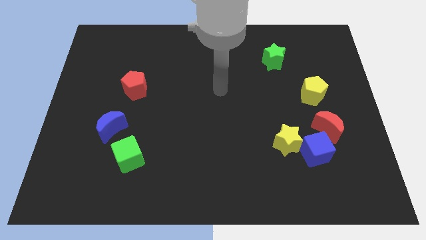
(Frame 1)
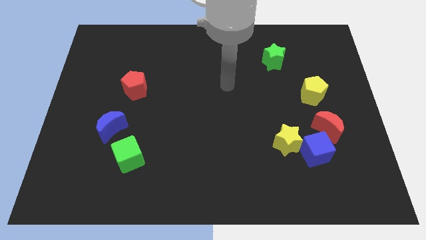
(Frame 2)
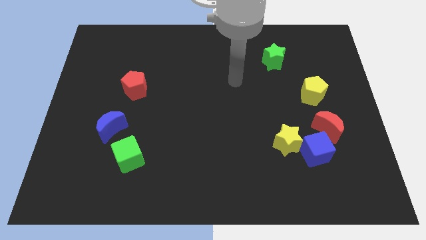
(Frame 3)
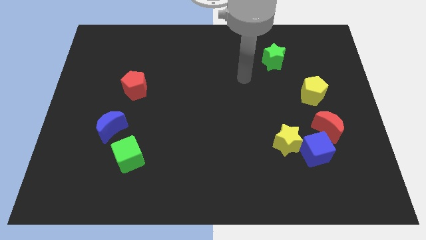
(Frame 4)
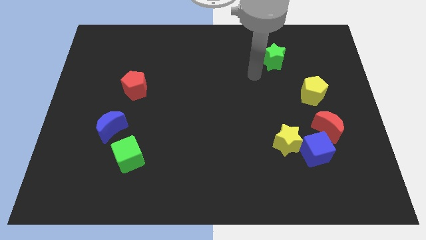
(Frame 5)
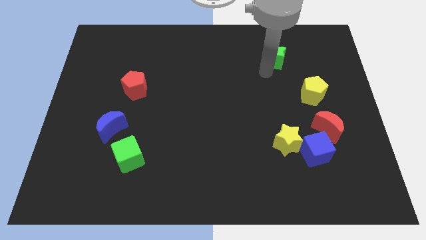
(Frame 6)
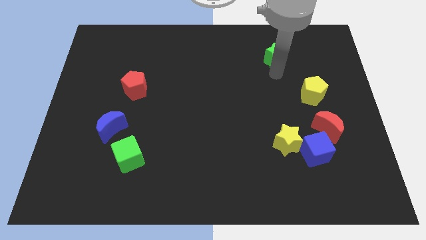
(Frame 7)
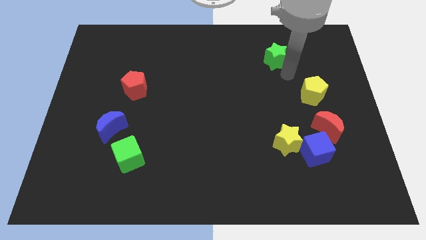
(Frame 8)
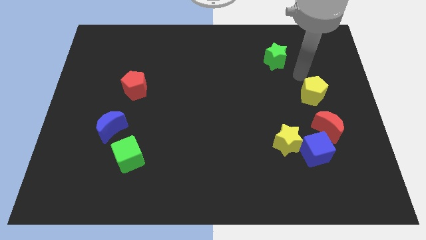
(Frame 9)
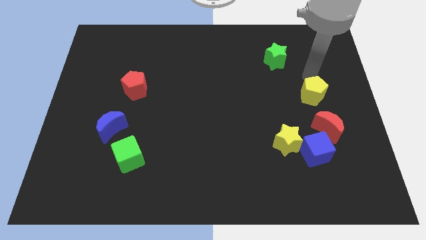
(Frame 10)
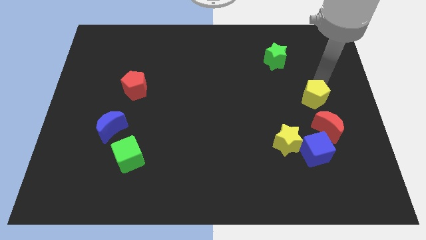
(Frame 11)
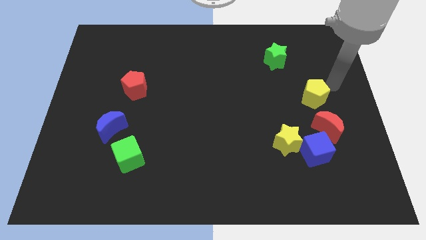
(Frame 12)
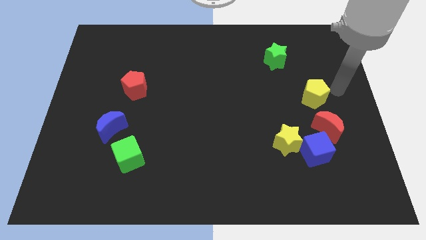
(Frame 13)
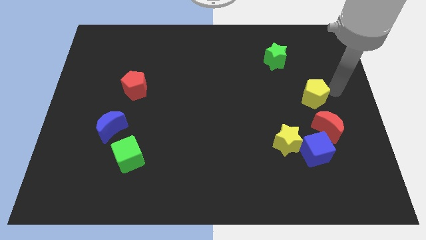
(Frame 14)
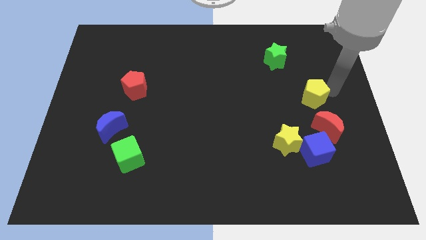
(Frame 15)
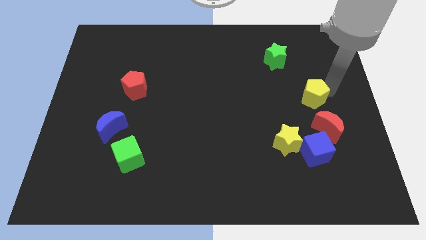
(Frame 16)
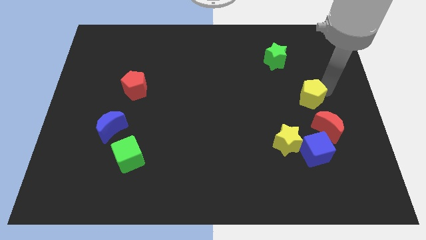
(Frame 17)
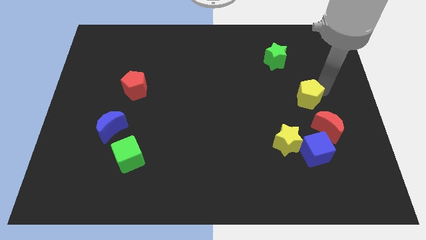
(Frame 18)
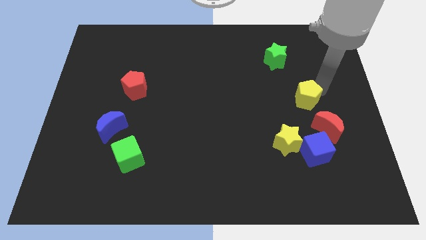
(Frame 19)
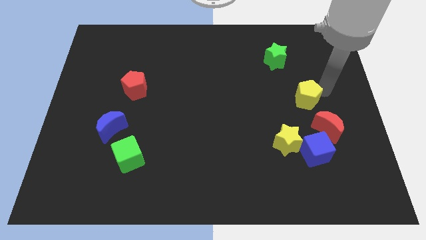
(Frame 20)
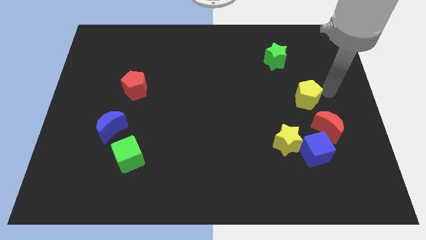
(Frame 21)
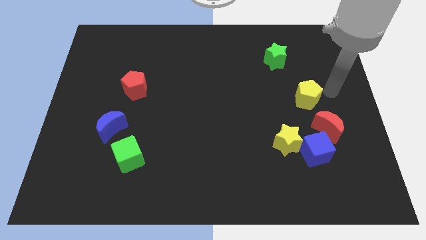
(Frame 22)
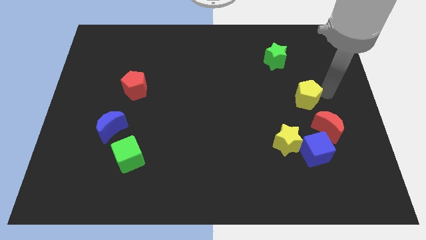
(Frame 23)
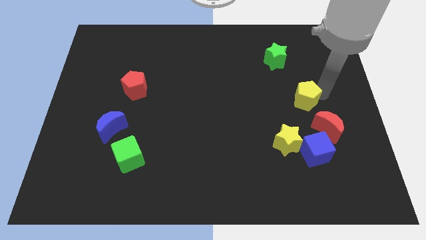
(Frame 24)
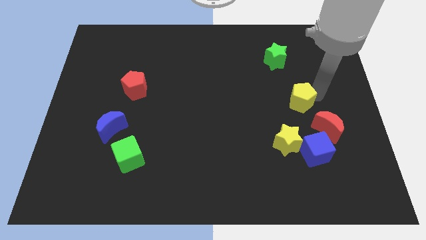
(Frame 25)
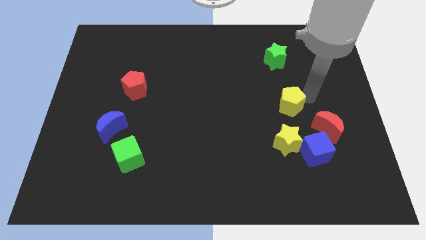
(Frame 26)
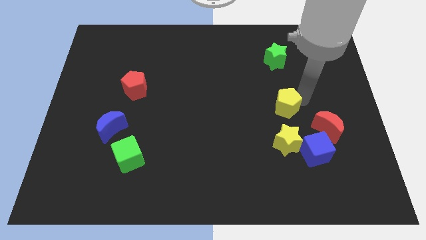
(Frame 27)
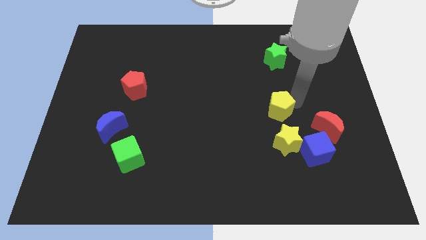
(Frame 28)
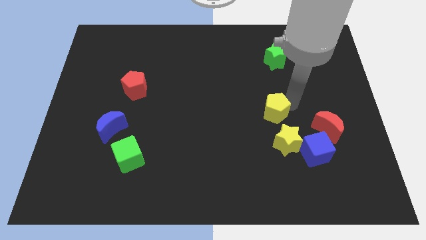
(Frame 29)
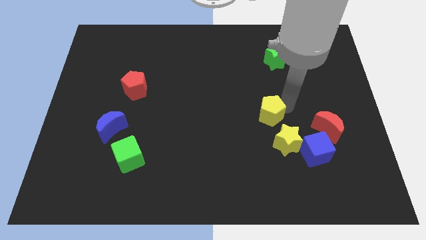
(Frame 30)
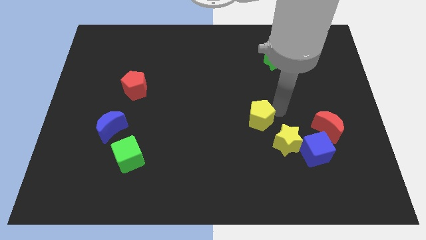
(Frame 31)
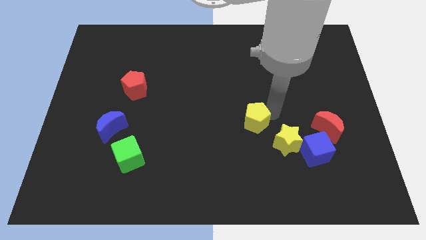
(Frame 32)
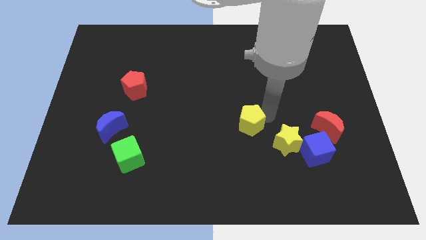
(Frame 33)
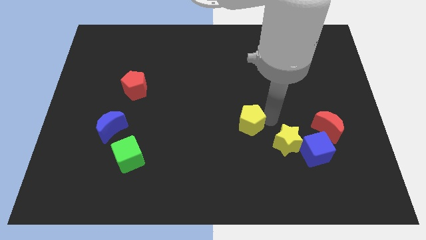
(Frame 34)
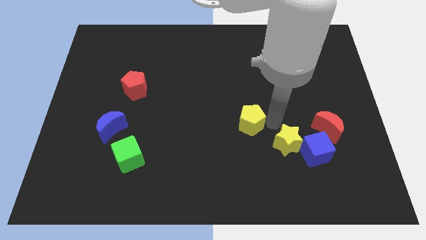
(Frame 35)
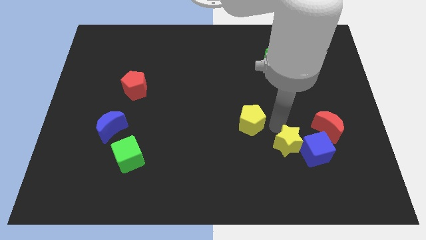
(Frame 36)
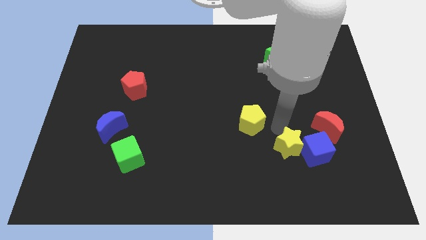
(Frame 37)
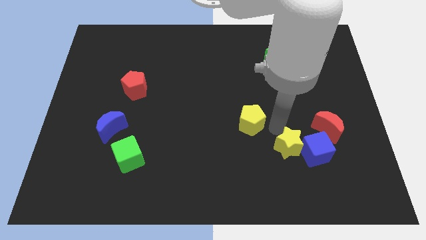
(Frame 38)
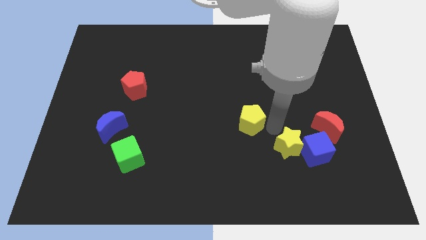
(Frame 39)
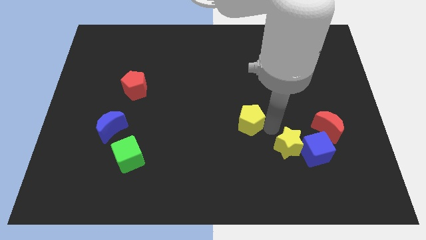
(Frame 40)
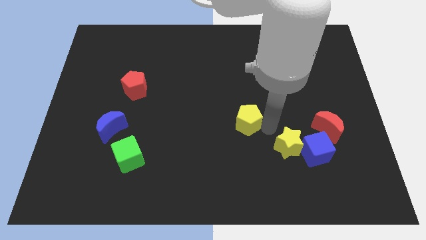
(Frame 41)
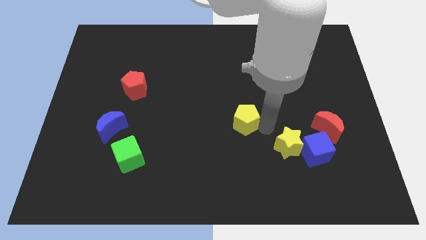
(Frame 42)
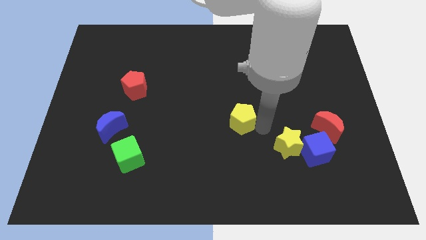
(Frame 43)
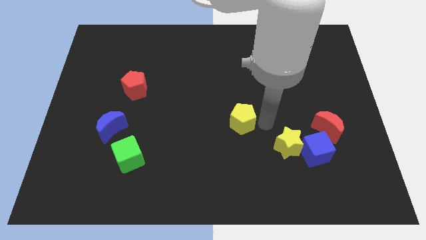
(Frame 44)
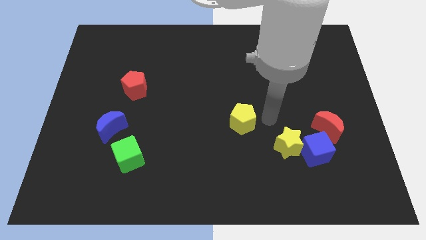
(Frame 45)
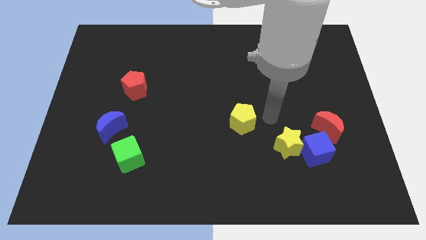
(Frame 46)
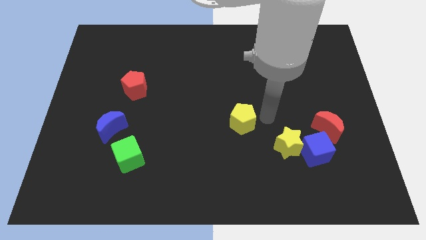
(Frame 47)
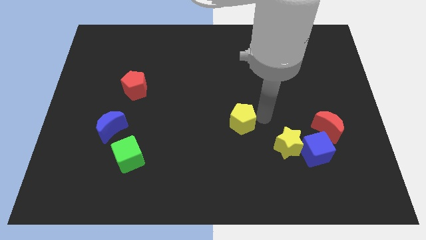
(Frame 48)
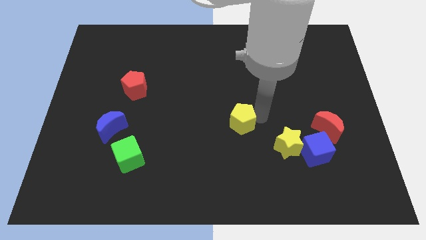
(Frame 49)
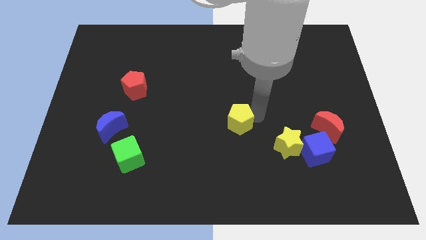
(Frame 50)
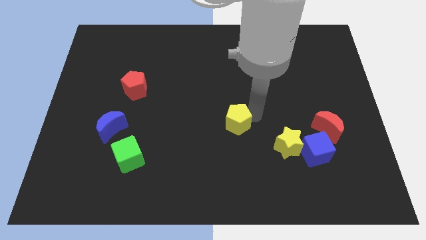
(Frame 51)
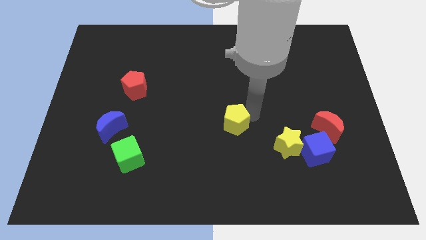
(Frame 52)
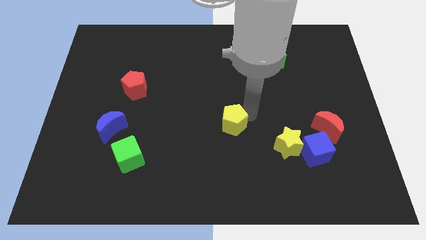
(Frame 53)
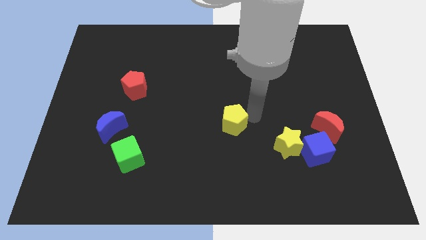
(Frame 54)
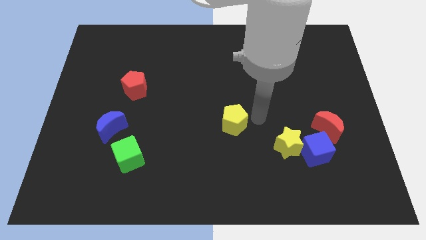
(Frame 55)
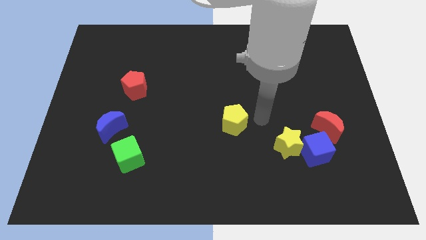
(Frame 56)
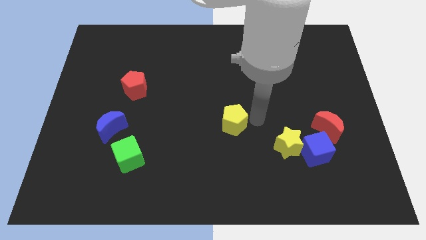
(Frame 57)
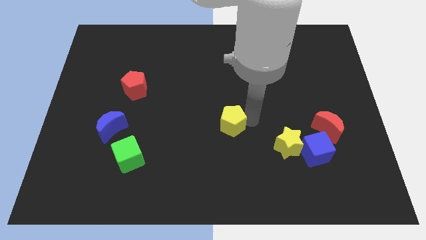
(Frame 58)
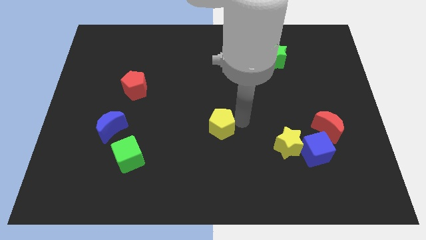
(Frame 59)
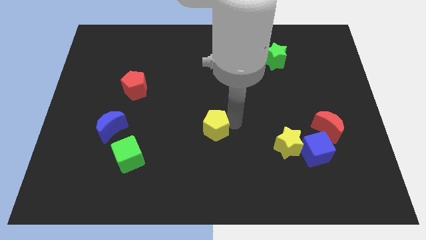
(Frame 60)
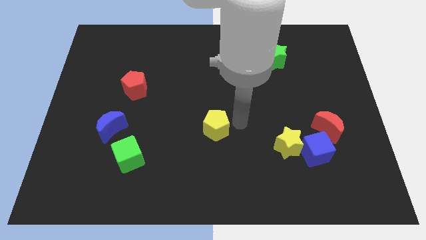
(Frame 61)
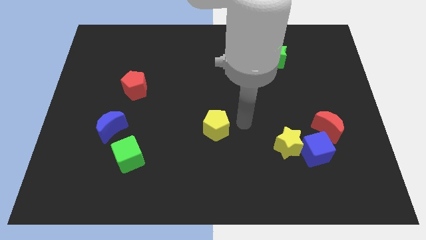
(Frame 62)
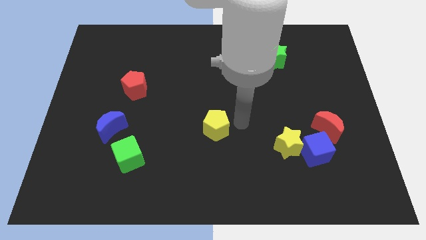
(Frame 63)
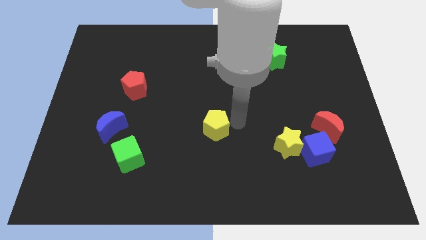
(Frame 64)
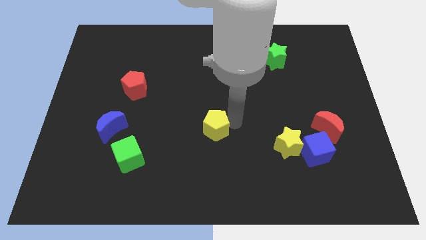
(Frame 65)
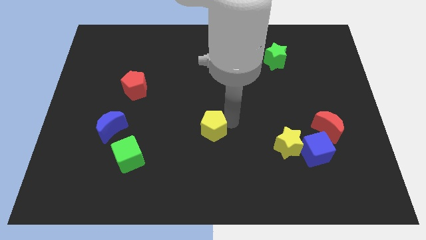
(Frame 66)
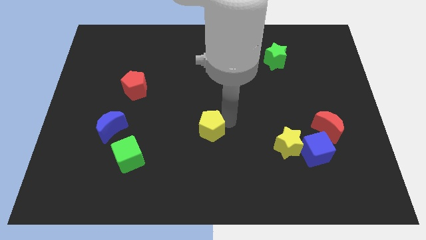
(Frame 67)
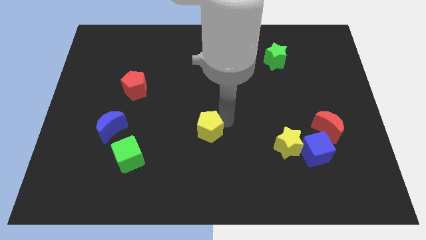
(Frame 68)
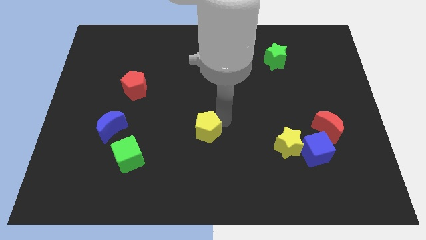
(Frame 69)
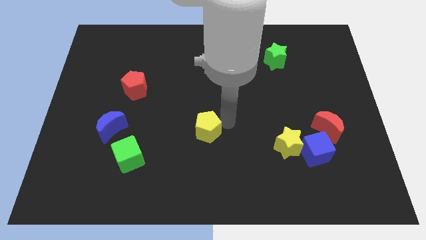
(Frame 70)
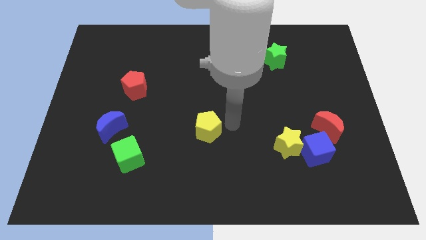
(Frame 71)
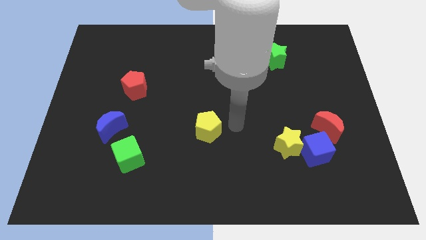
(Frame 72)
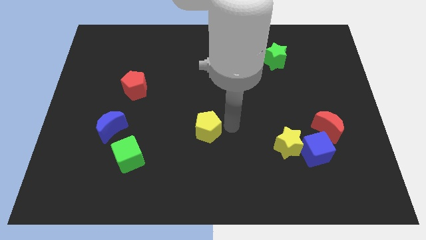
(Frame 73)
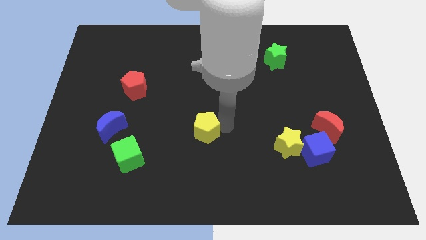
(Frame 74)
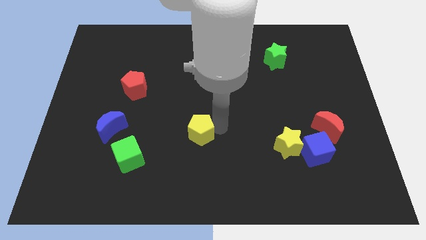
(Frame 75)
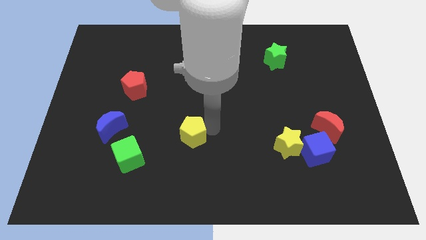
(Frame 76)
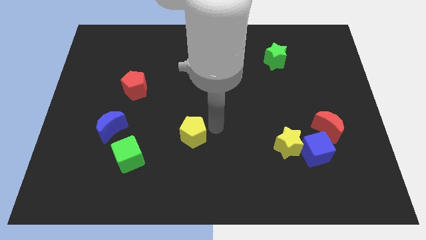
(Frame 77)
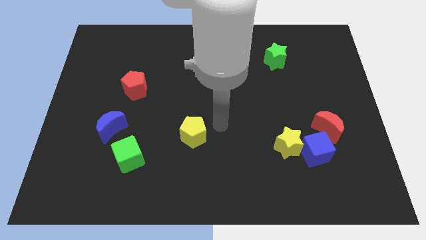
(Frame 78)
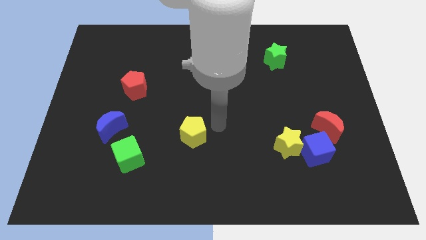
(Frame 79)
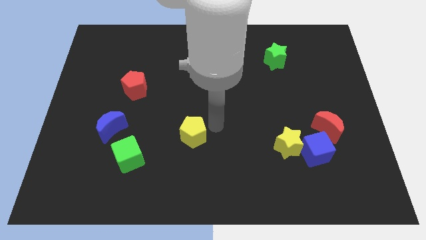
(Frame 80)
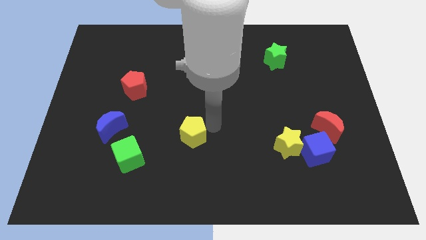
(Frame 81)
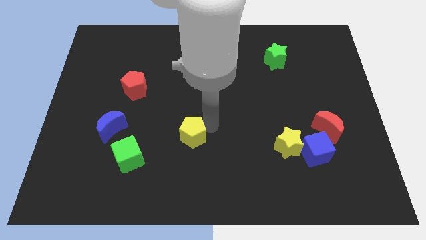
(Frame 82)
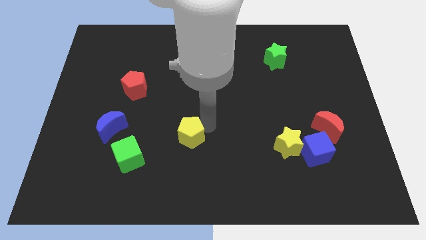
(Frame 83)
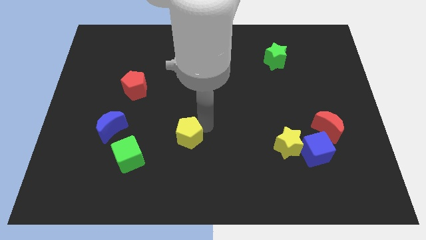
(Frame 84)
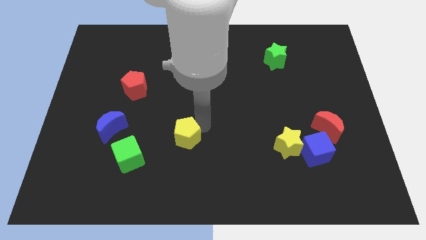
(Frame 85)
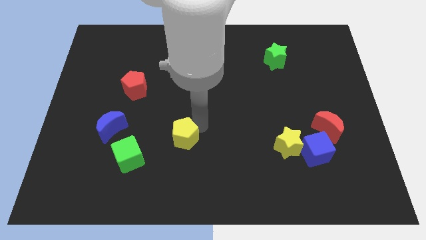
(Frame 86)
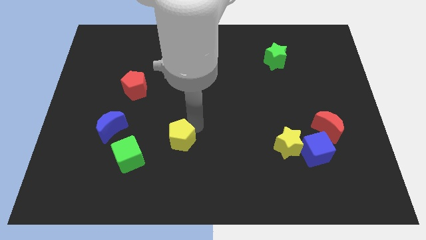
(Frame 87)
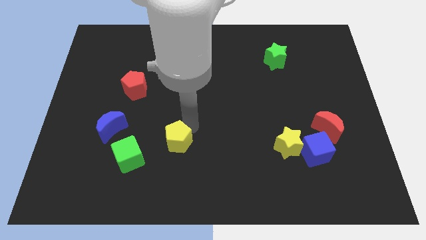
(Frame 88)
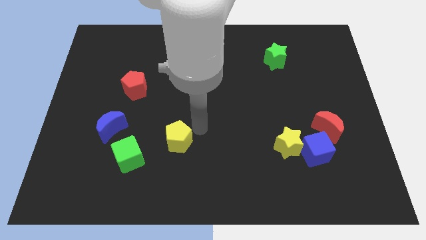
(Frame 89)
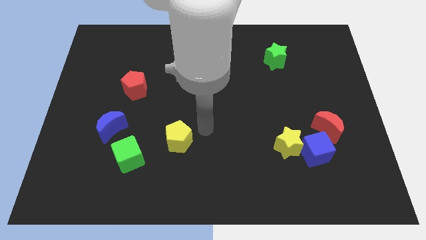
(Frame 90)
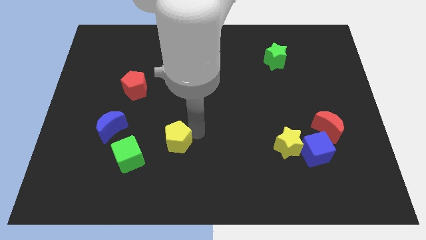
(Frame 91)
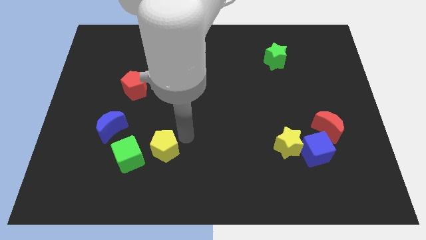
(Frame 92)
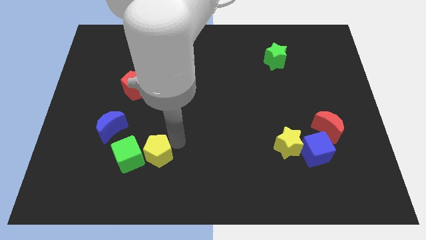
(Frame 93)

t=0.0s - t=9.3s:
push the yellow pentagon next to the green cube
